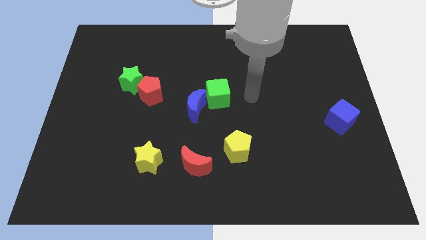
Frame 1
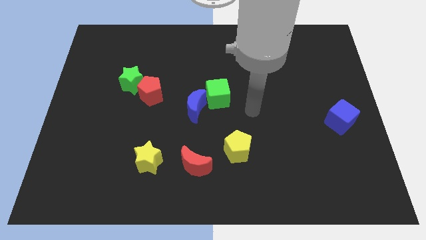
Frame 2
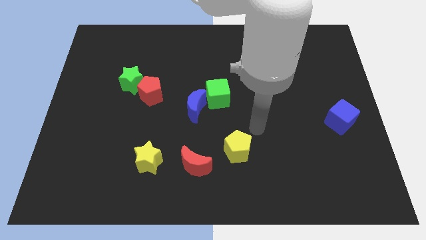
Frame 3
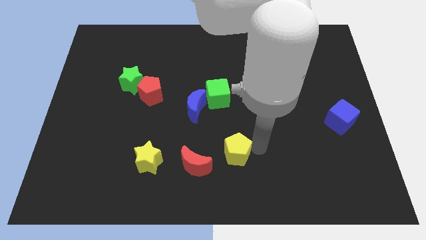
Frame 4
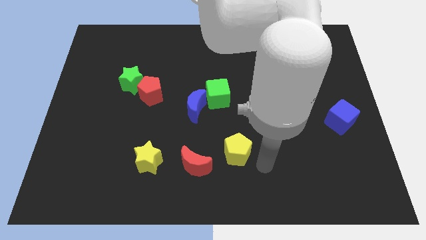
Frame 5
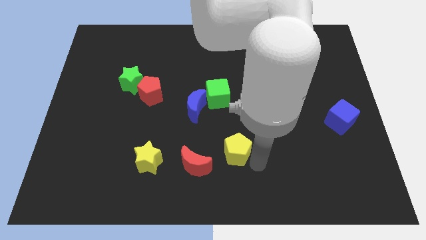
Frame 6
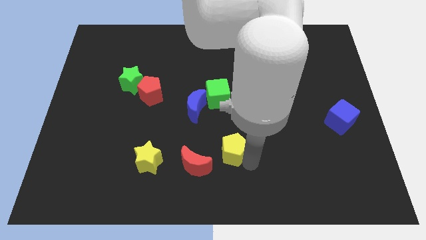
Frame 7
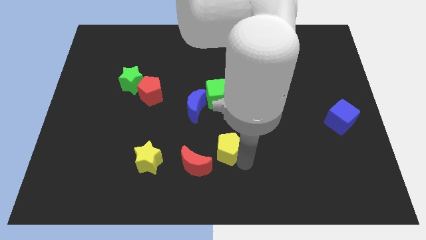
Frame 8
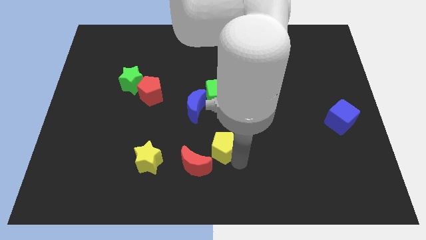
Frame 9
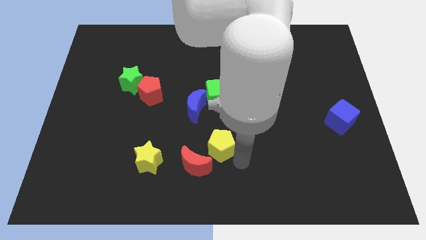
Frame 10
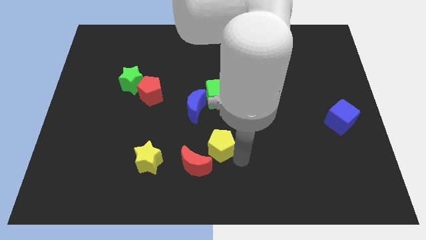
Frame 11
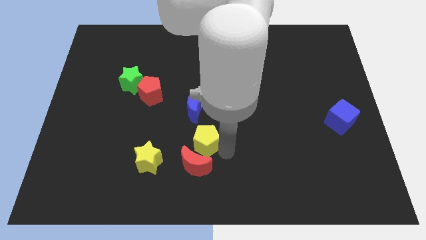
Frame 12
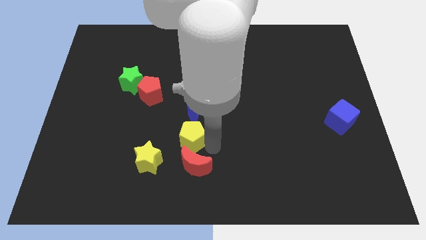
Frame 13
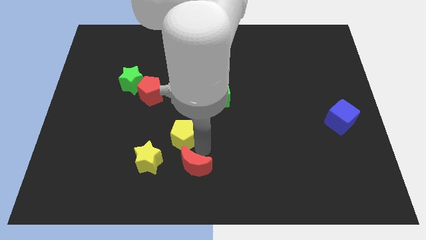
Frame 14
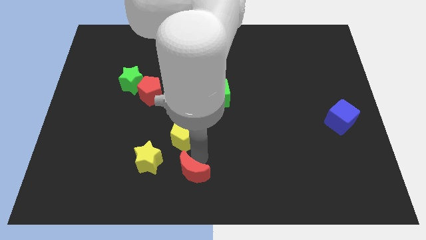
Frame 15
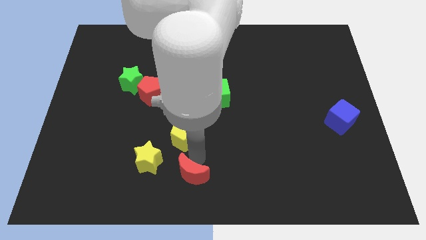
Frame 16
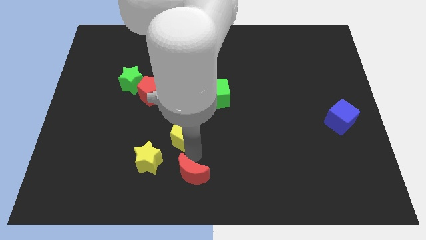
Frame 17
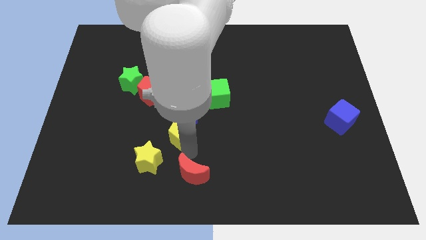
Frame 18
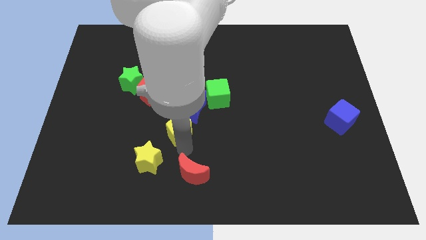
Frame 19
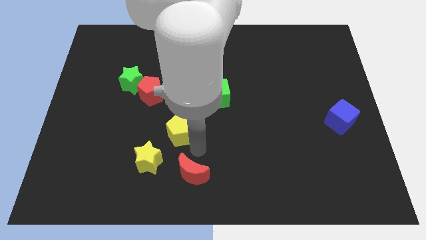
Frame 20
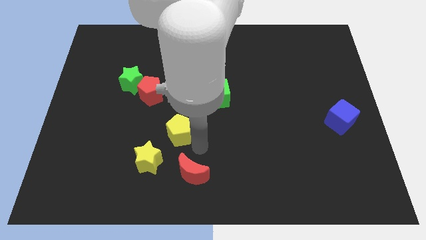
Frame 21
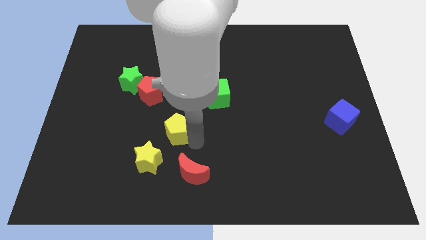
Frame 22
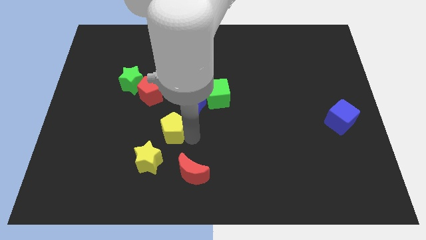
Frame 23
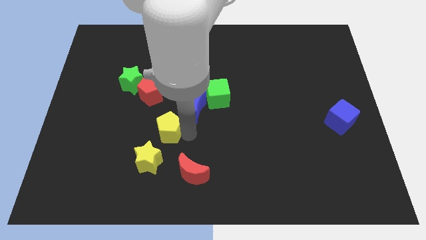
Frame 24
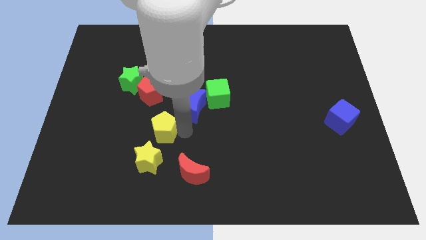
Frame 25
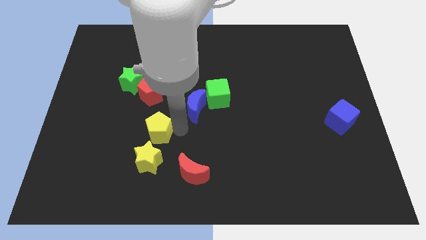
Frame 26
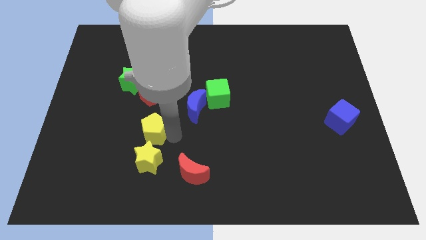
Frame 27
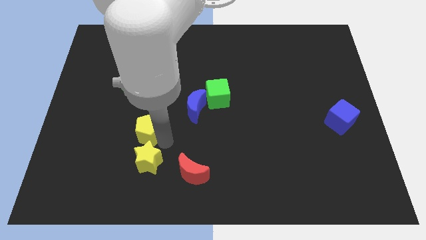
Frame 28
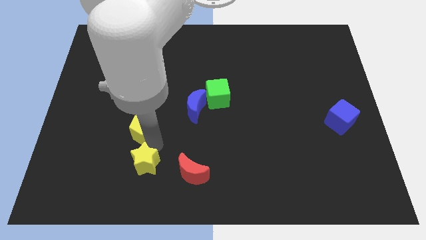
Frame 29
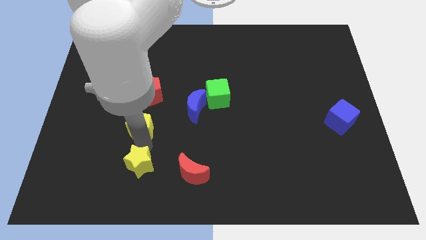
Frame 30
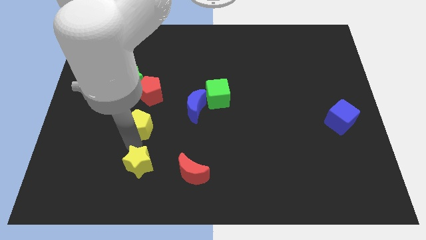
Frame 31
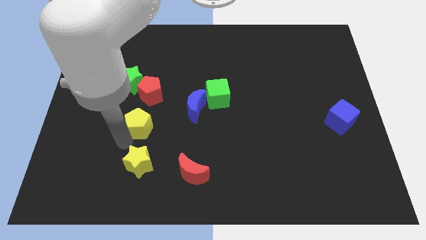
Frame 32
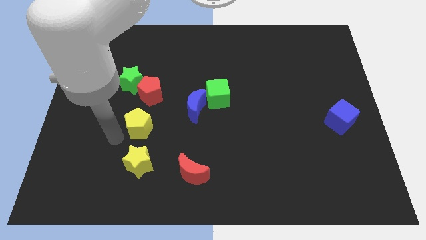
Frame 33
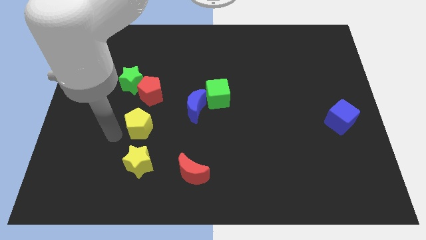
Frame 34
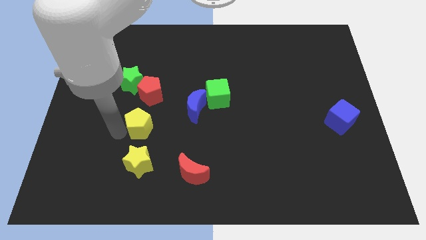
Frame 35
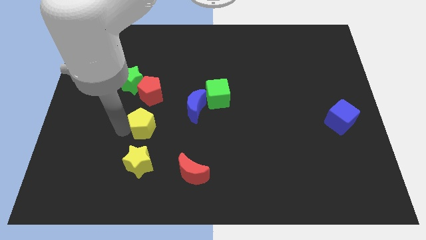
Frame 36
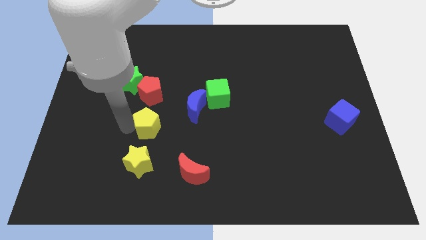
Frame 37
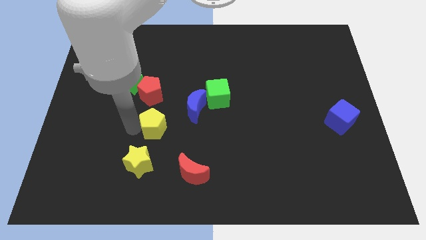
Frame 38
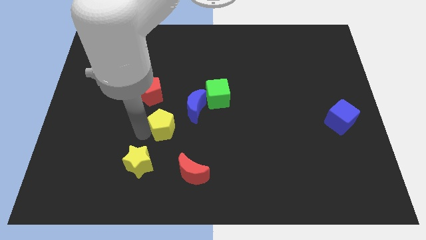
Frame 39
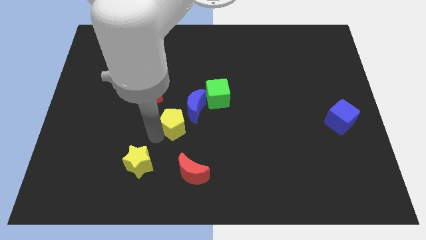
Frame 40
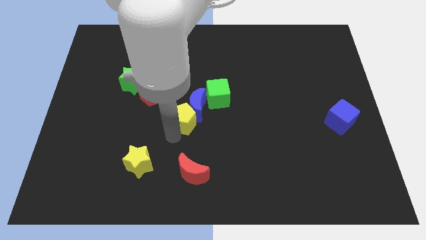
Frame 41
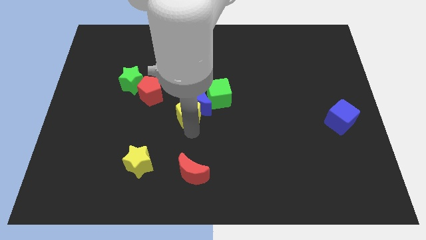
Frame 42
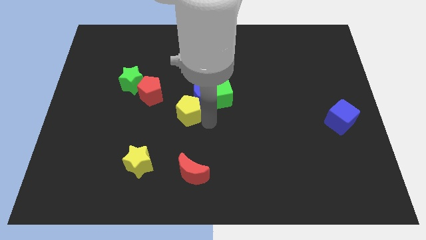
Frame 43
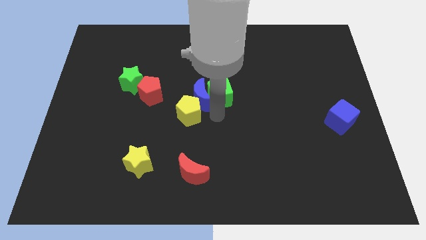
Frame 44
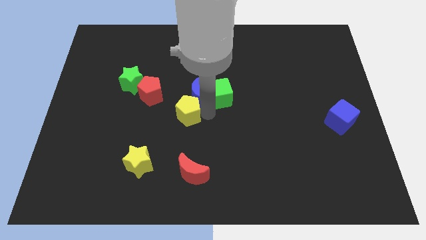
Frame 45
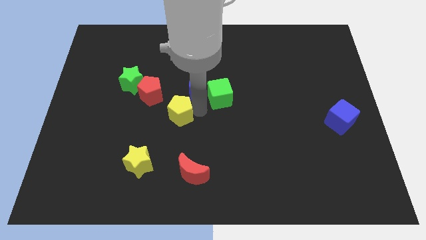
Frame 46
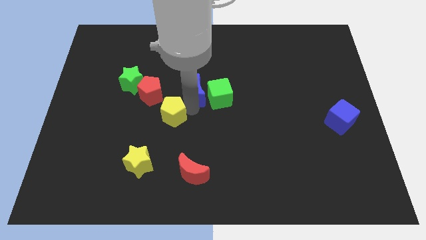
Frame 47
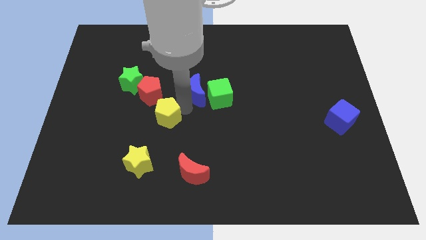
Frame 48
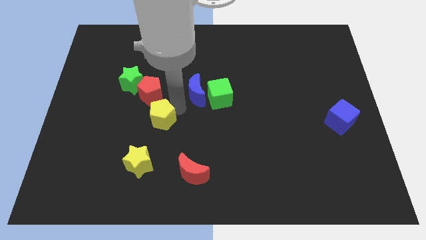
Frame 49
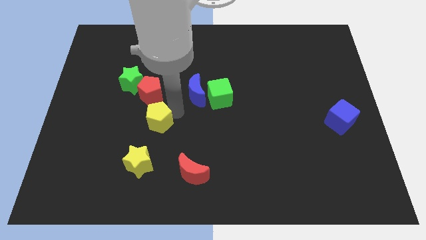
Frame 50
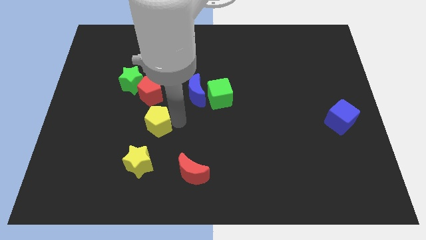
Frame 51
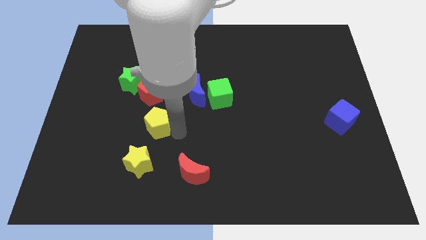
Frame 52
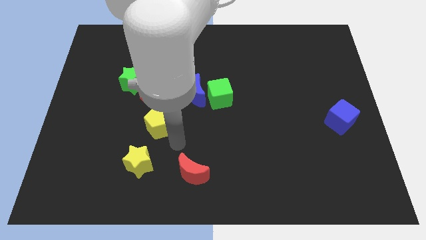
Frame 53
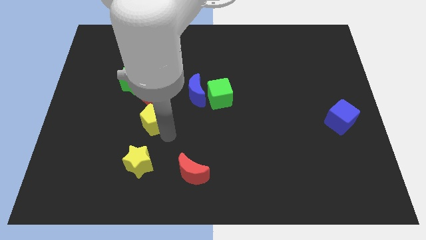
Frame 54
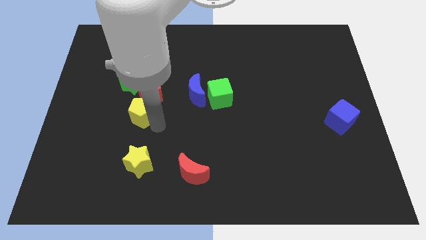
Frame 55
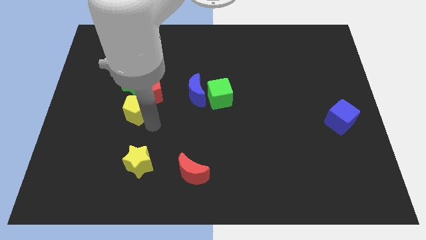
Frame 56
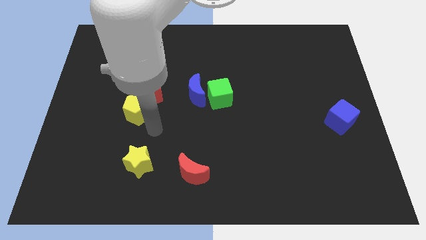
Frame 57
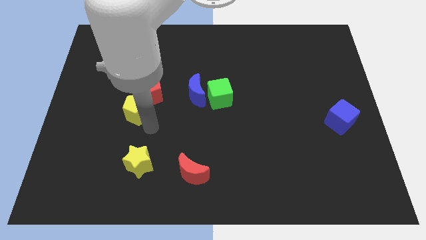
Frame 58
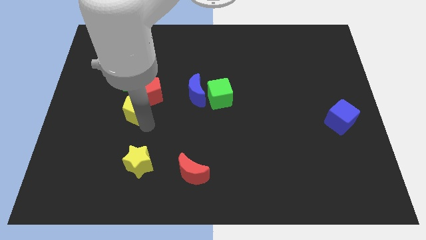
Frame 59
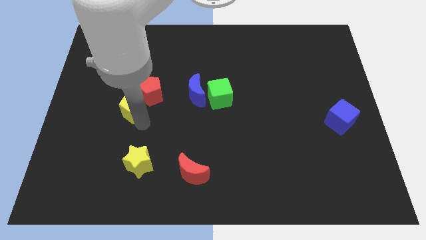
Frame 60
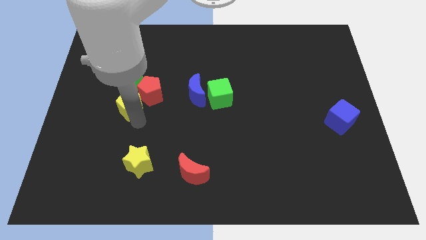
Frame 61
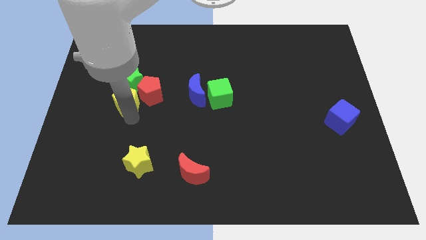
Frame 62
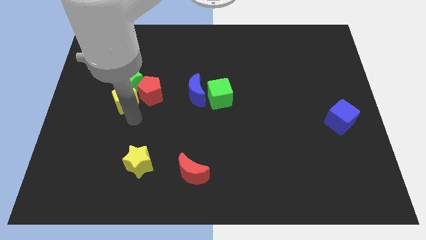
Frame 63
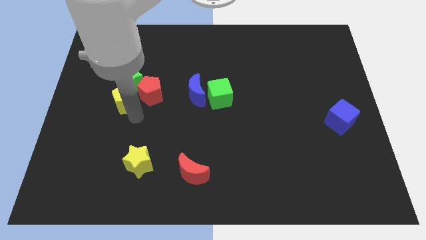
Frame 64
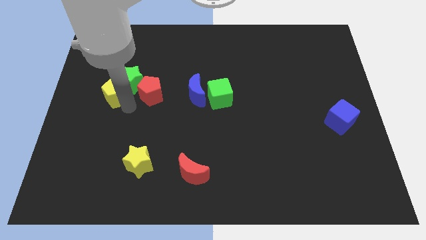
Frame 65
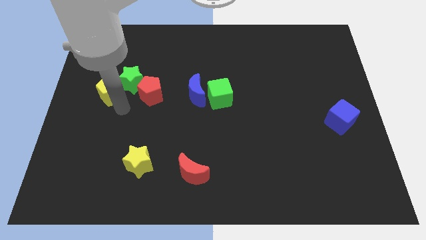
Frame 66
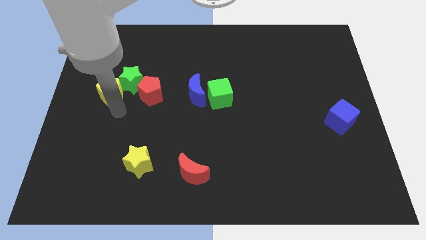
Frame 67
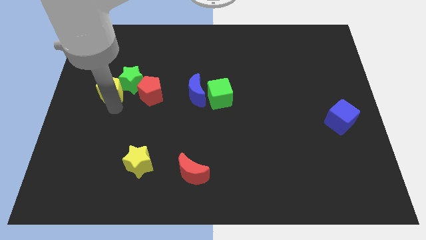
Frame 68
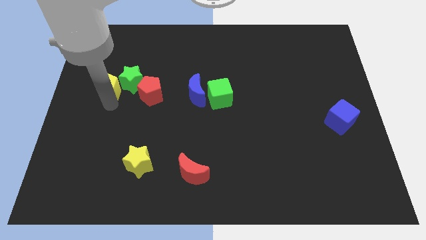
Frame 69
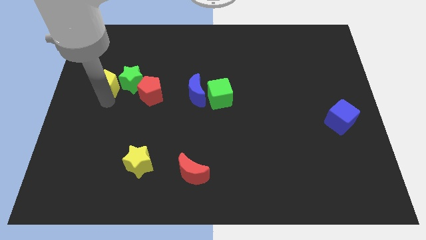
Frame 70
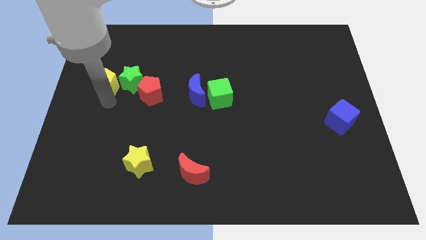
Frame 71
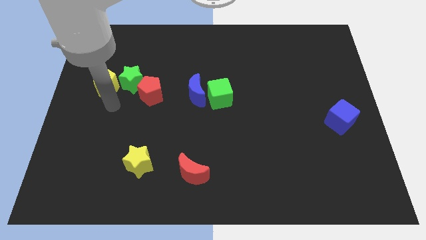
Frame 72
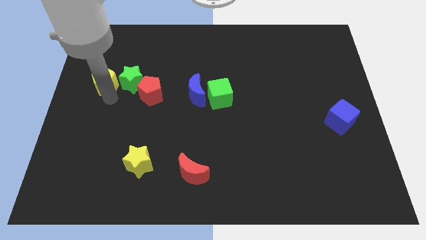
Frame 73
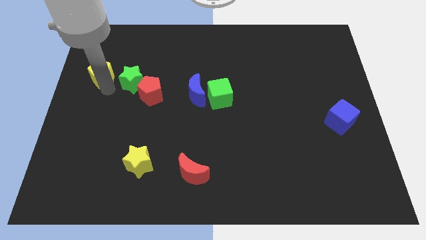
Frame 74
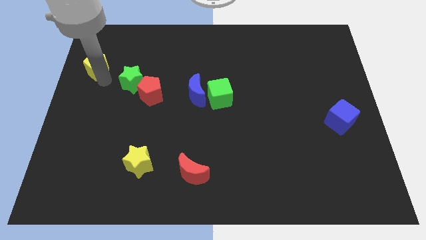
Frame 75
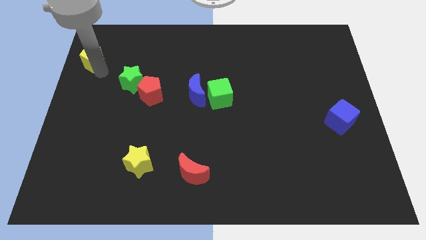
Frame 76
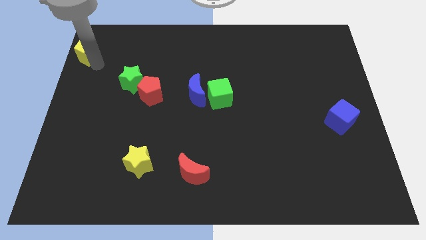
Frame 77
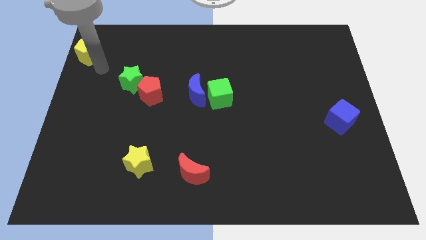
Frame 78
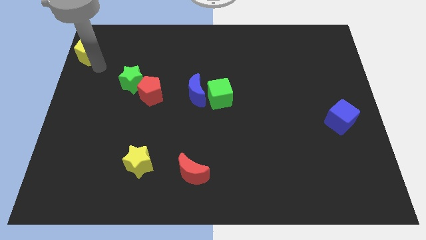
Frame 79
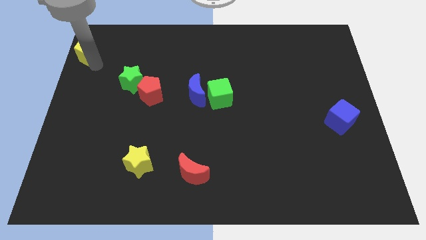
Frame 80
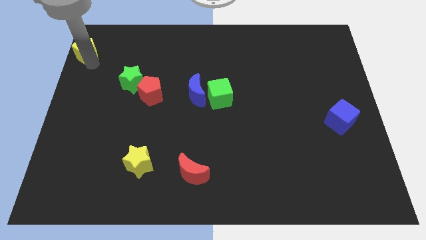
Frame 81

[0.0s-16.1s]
push the yellow pentagon to the top left of the board
